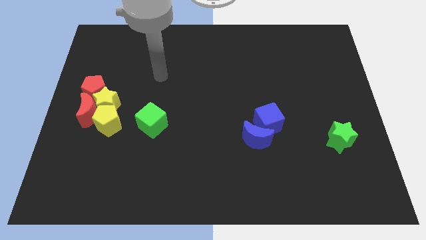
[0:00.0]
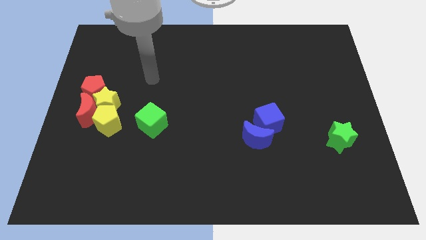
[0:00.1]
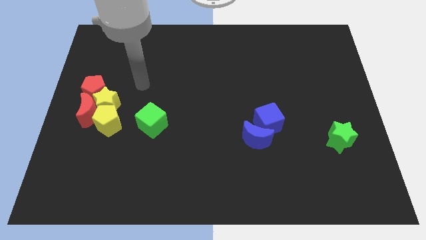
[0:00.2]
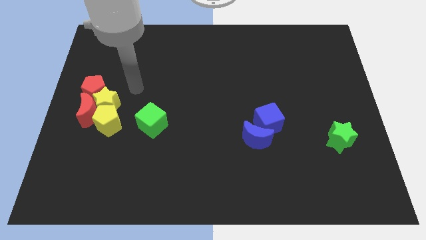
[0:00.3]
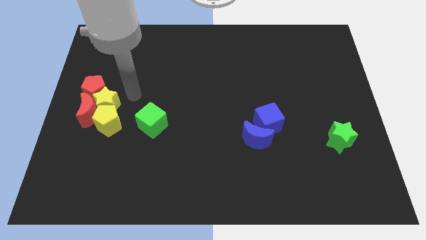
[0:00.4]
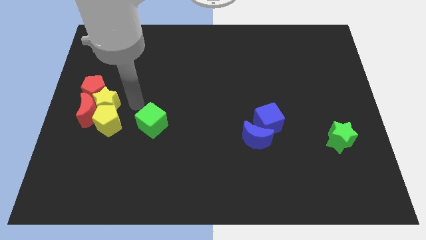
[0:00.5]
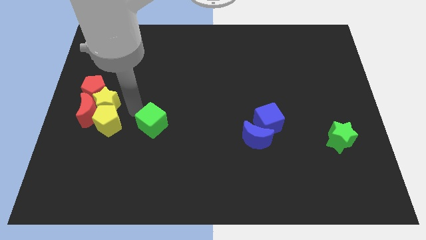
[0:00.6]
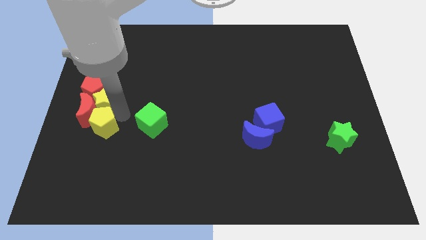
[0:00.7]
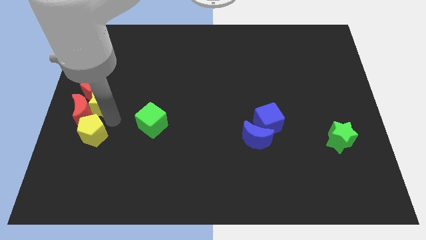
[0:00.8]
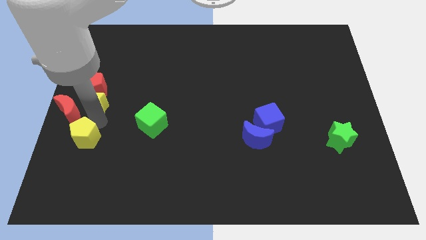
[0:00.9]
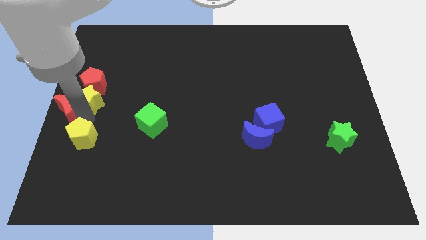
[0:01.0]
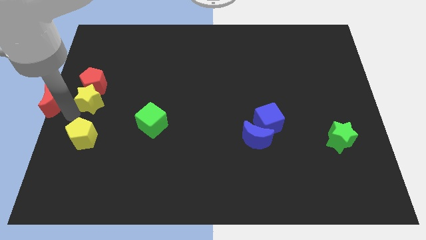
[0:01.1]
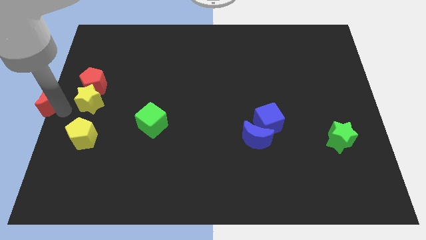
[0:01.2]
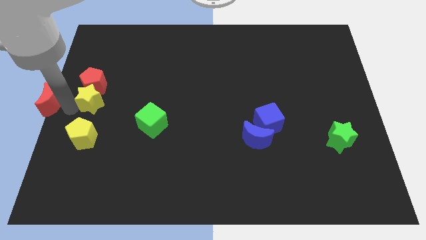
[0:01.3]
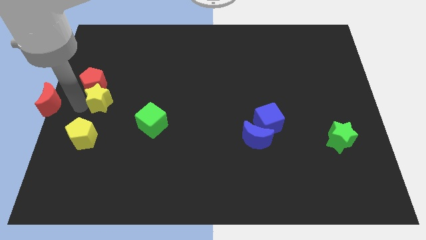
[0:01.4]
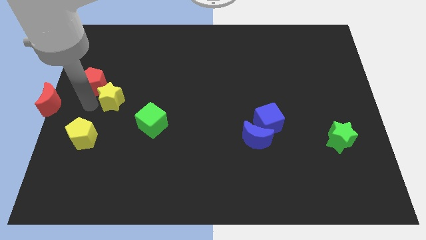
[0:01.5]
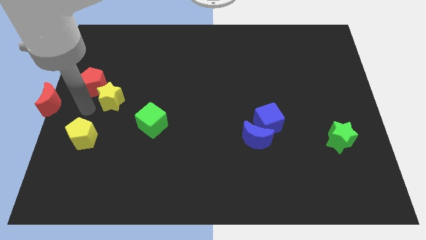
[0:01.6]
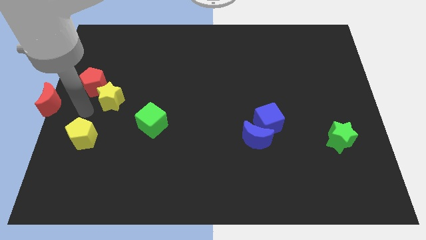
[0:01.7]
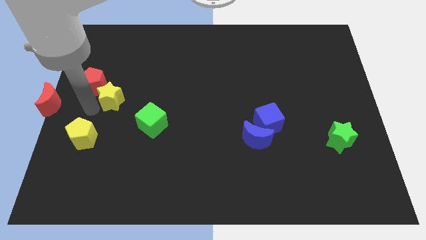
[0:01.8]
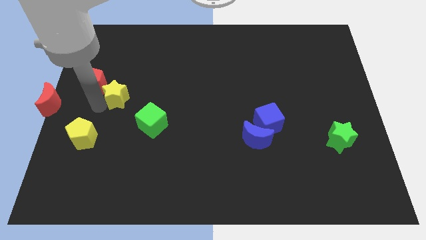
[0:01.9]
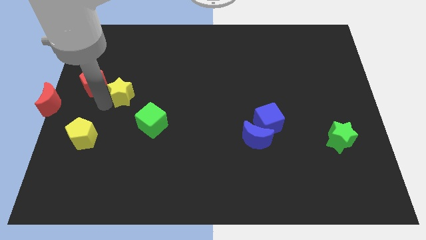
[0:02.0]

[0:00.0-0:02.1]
separate the yellow star from the clump

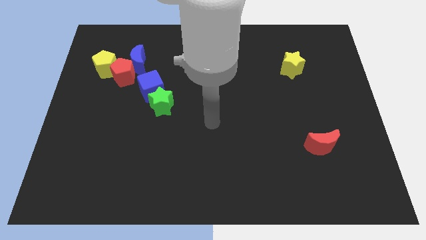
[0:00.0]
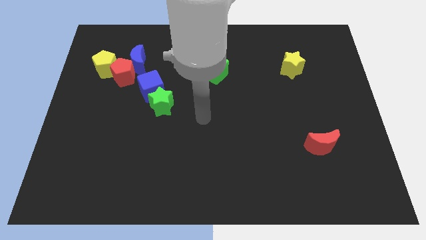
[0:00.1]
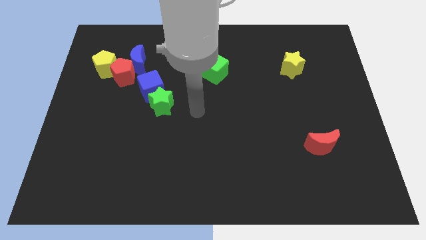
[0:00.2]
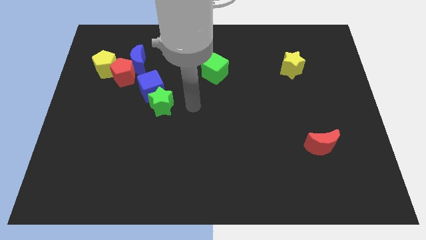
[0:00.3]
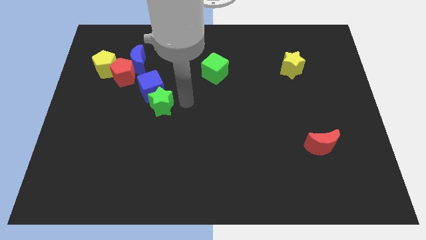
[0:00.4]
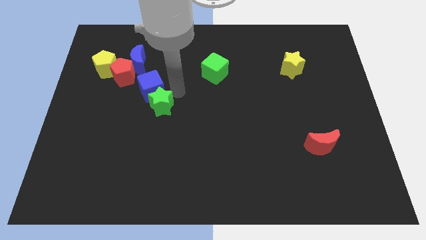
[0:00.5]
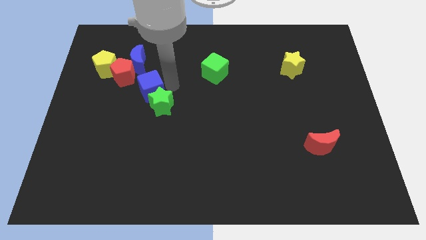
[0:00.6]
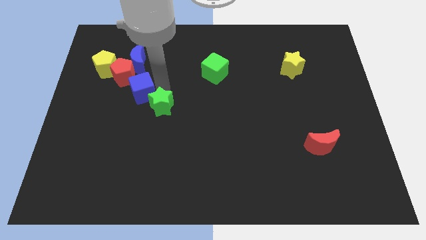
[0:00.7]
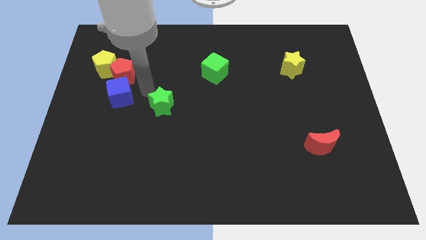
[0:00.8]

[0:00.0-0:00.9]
move the green star away from the blue cube

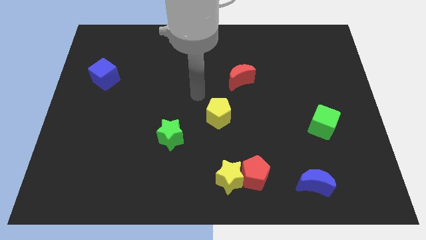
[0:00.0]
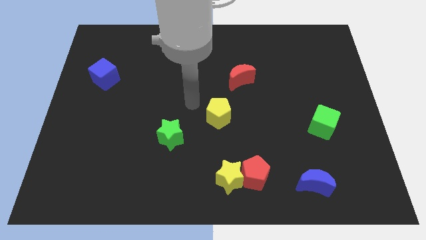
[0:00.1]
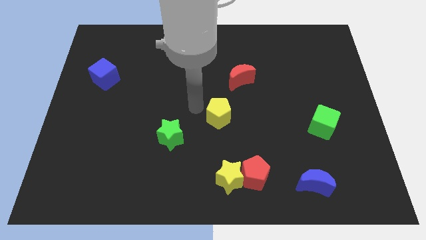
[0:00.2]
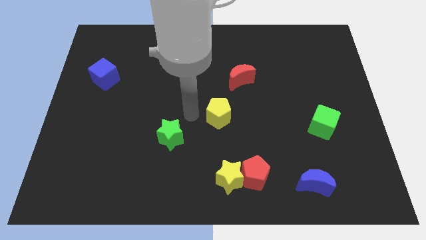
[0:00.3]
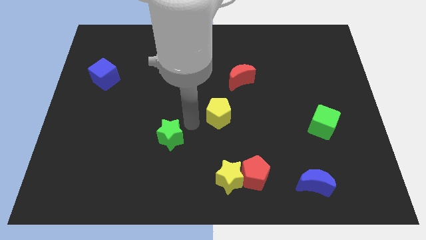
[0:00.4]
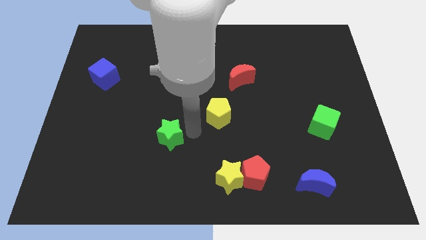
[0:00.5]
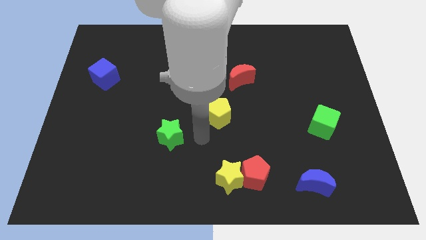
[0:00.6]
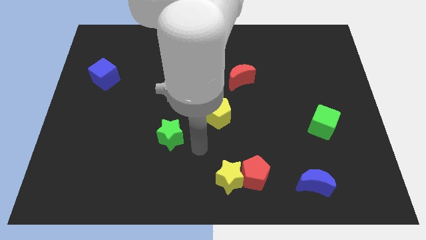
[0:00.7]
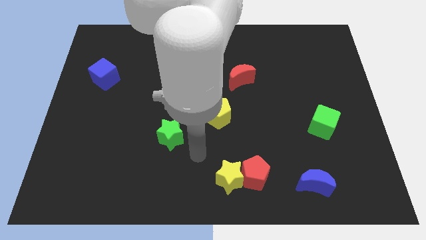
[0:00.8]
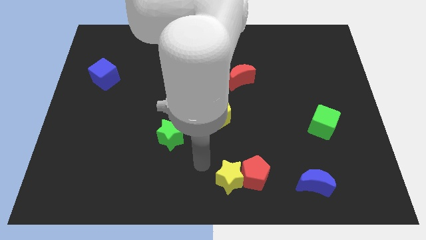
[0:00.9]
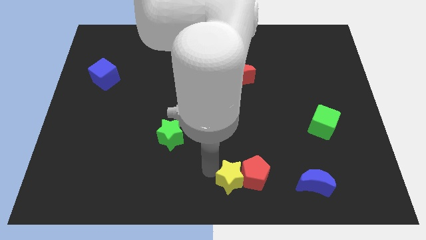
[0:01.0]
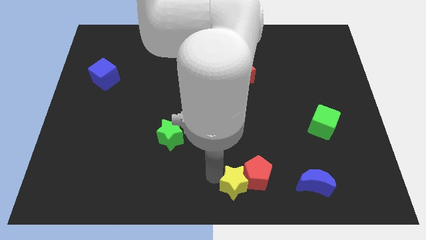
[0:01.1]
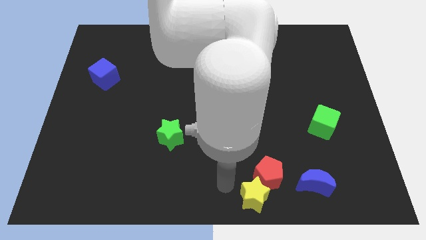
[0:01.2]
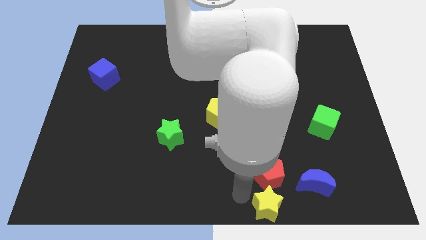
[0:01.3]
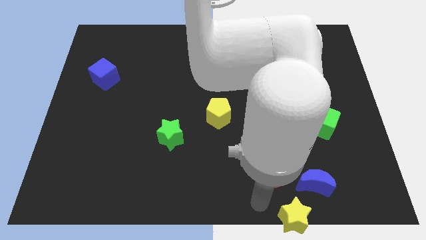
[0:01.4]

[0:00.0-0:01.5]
move the red pentagon away from the yellow star

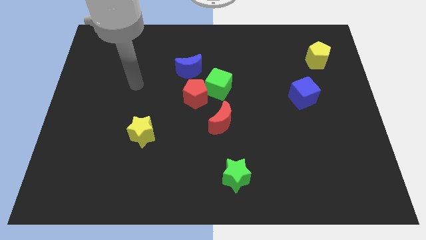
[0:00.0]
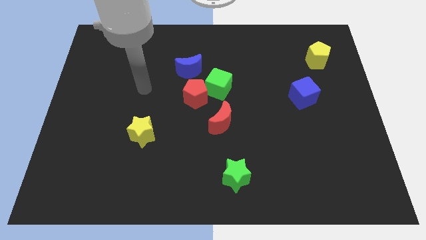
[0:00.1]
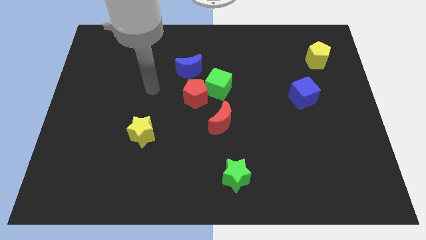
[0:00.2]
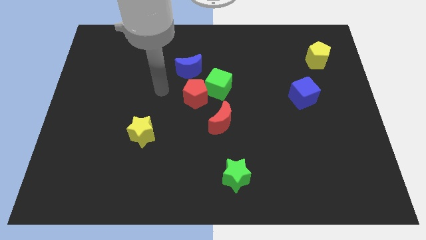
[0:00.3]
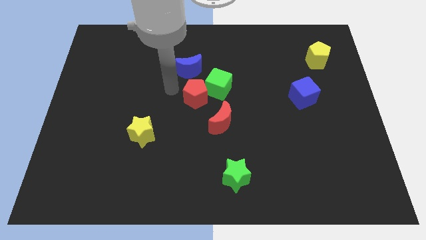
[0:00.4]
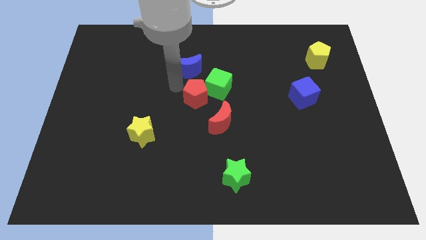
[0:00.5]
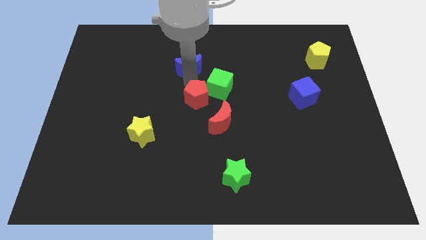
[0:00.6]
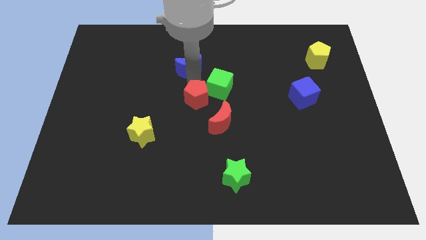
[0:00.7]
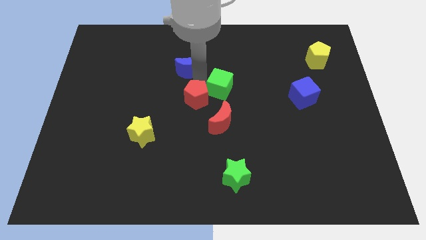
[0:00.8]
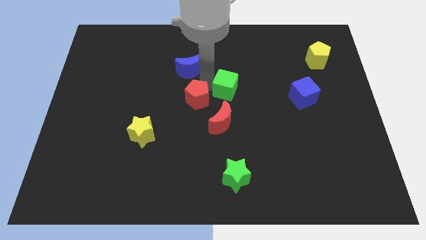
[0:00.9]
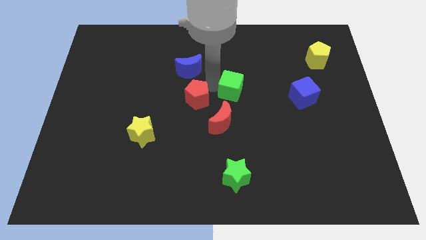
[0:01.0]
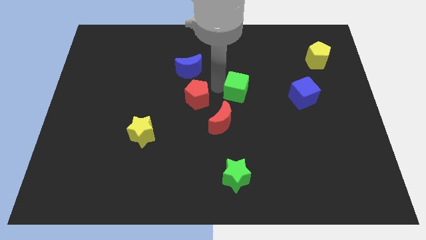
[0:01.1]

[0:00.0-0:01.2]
move the green cube away from the red pentagon and blue moon

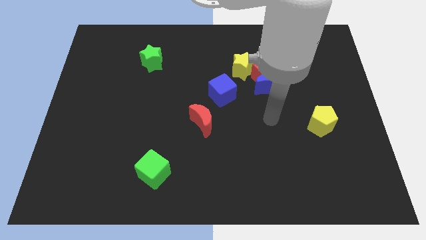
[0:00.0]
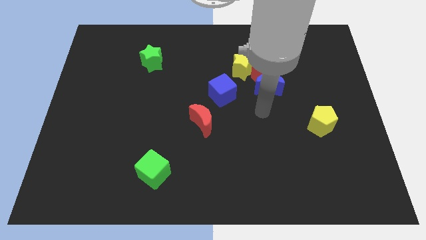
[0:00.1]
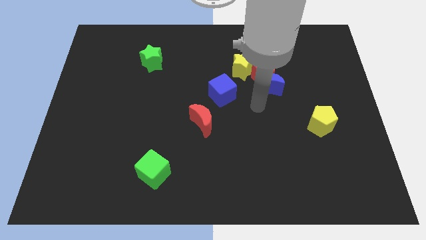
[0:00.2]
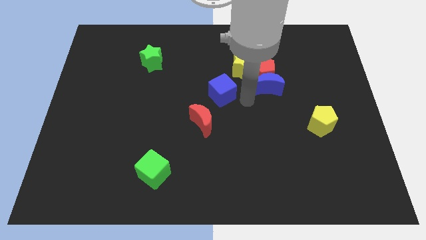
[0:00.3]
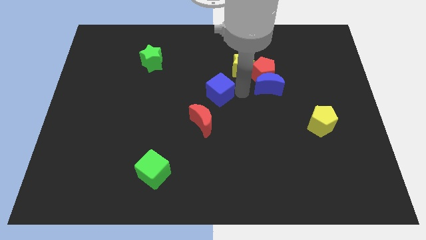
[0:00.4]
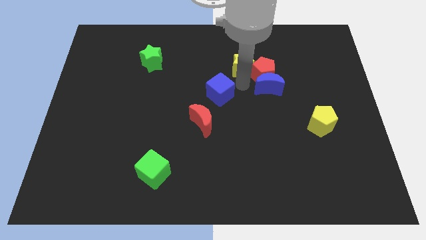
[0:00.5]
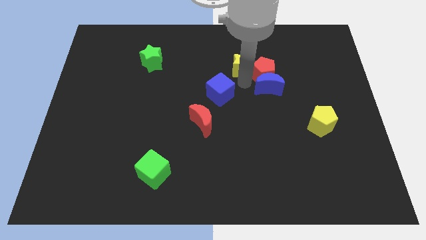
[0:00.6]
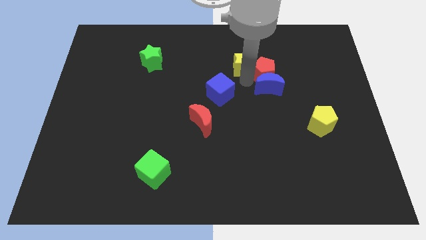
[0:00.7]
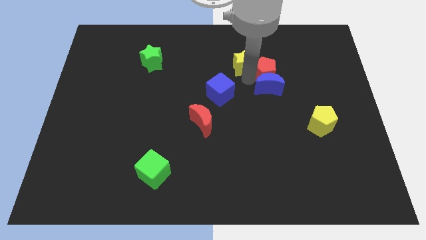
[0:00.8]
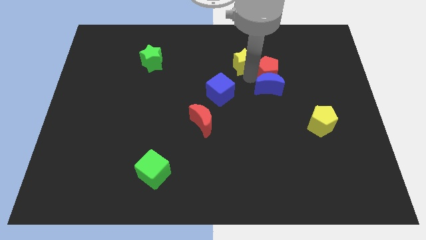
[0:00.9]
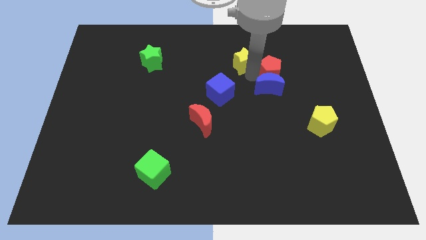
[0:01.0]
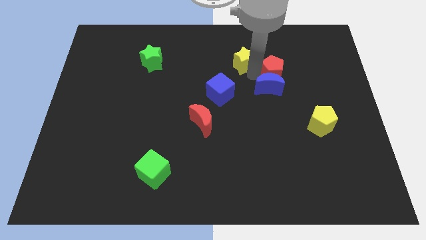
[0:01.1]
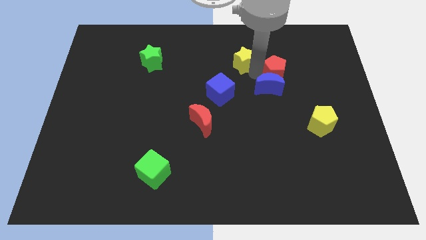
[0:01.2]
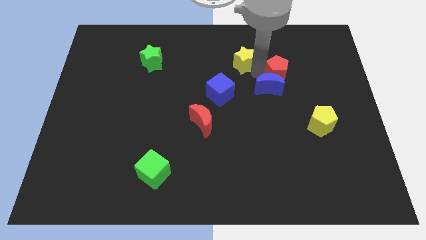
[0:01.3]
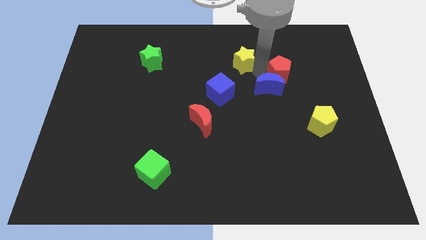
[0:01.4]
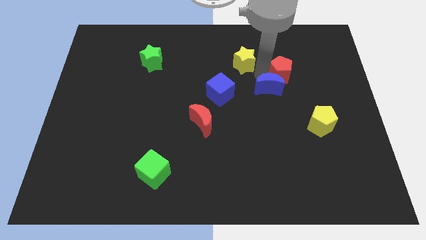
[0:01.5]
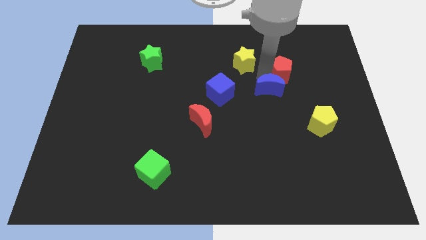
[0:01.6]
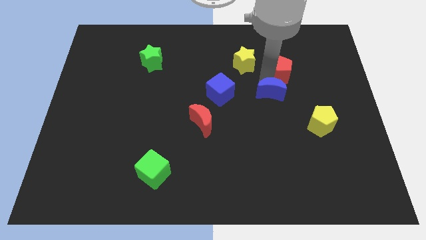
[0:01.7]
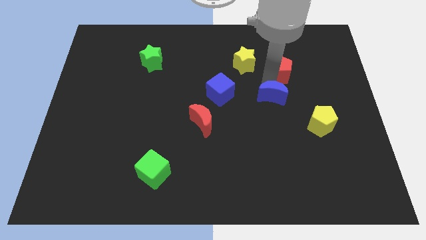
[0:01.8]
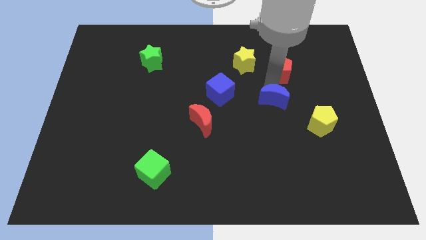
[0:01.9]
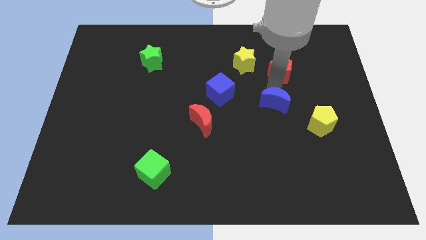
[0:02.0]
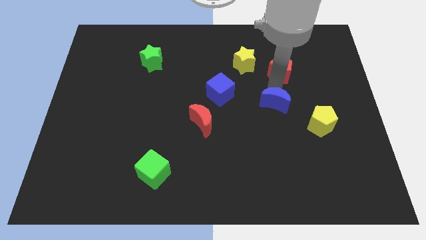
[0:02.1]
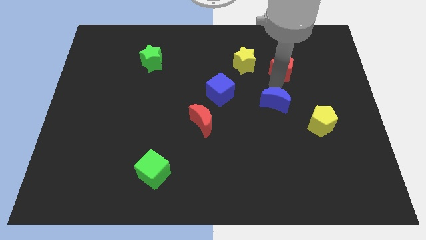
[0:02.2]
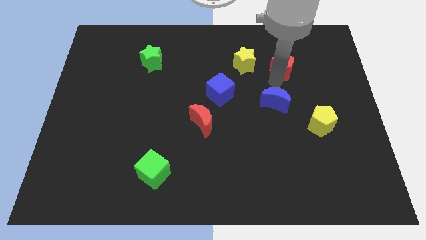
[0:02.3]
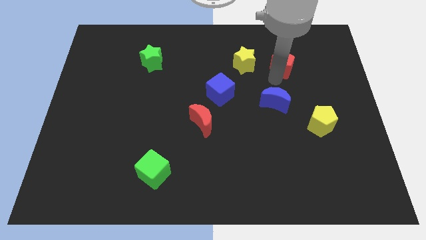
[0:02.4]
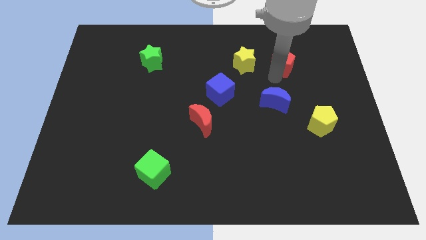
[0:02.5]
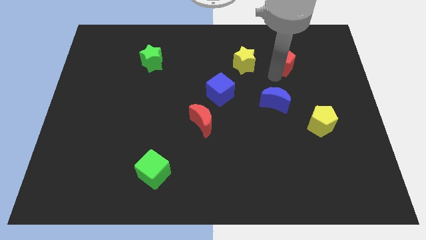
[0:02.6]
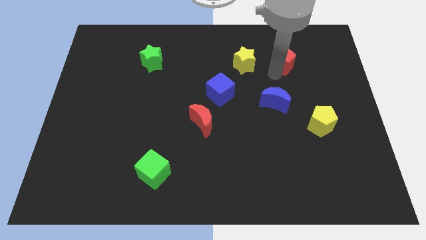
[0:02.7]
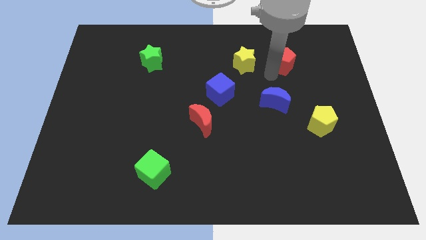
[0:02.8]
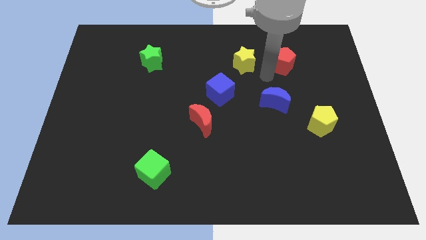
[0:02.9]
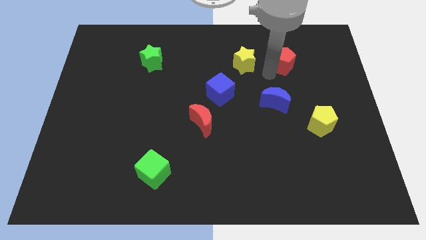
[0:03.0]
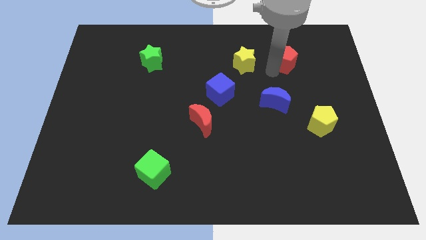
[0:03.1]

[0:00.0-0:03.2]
move the red pentagon away from the blue moon and yellow star

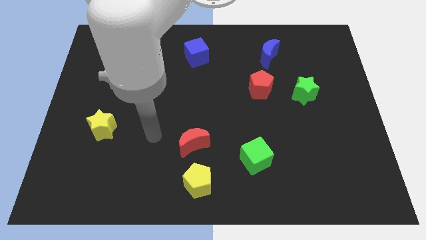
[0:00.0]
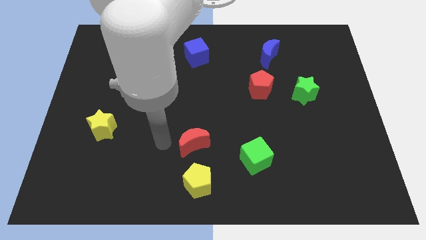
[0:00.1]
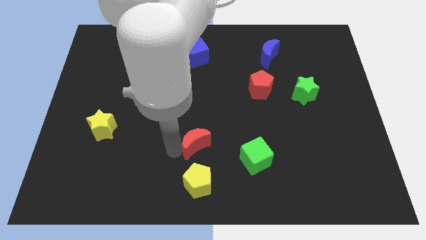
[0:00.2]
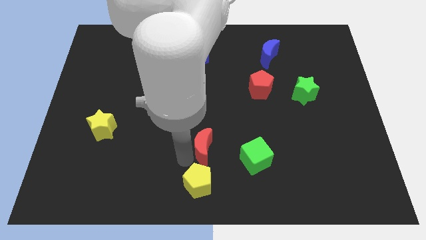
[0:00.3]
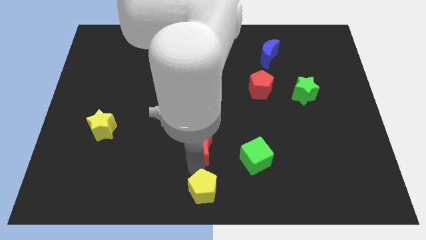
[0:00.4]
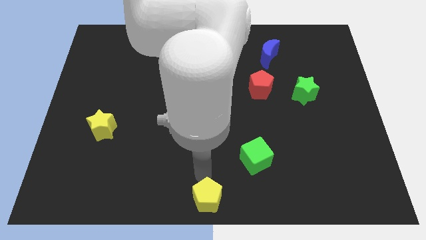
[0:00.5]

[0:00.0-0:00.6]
pull the red moon apart from the yellow pentagon

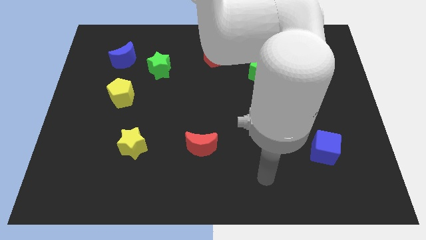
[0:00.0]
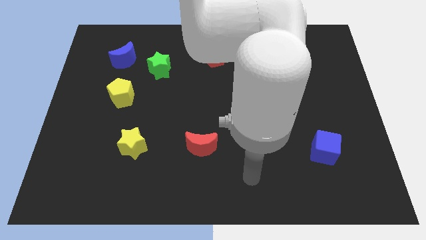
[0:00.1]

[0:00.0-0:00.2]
move the blue moon away from the green star
